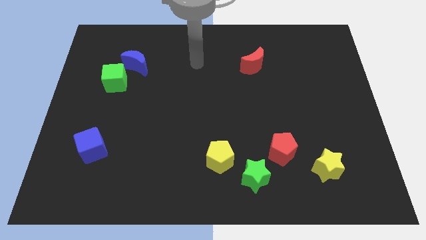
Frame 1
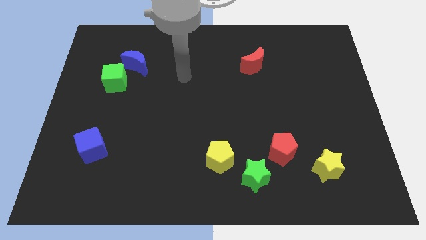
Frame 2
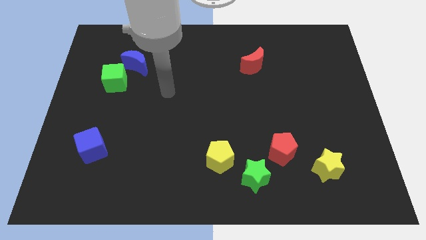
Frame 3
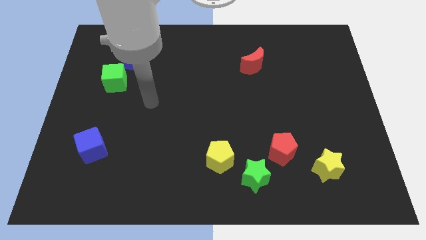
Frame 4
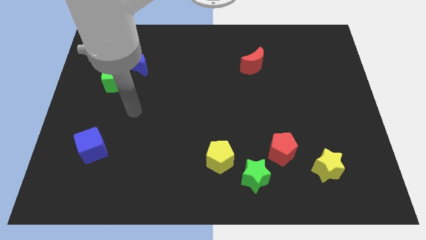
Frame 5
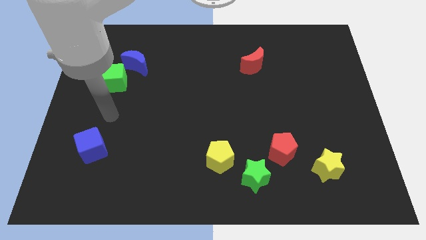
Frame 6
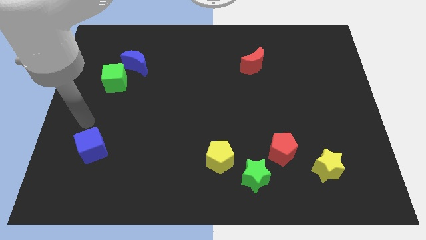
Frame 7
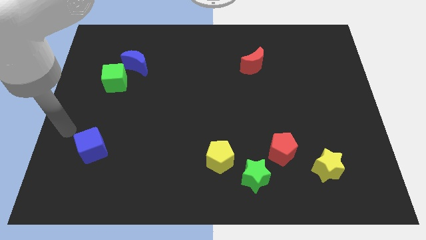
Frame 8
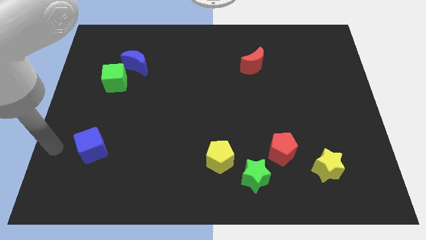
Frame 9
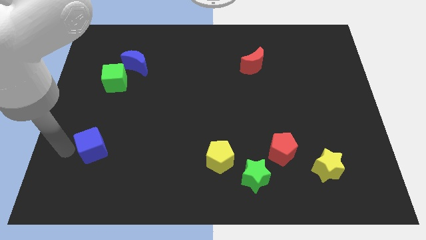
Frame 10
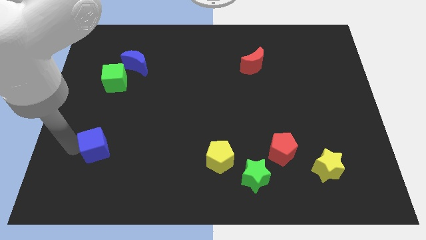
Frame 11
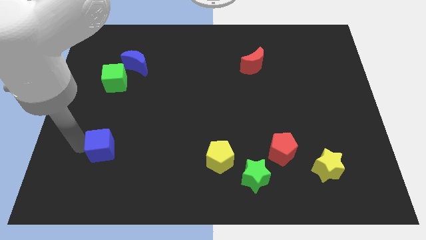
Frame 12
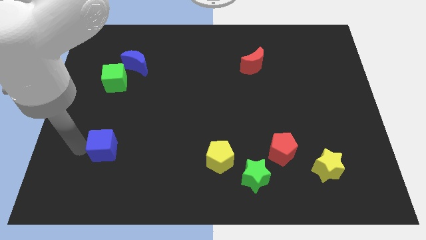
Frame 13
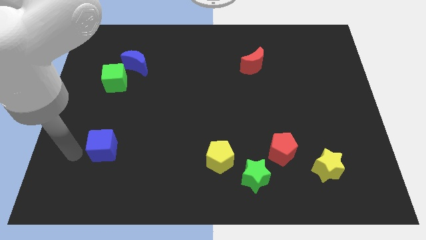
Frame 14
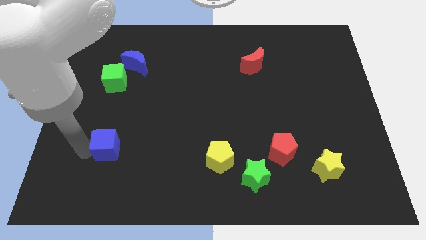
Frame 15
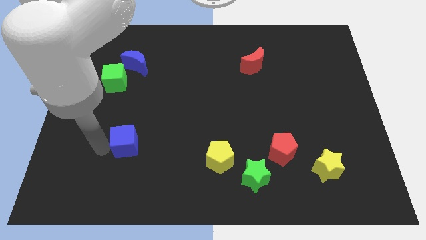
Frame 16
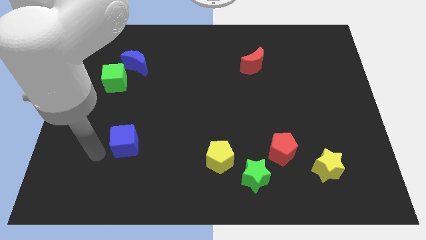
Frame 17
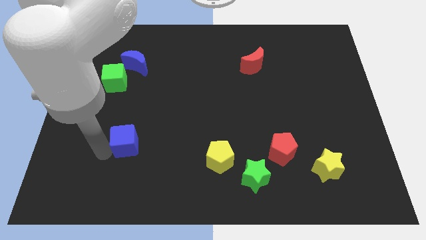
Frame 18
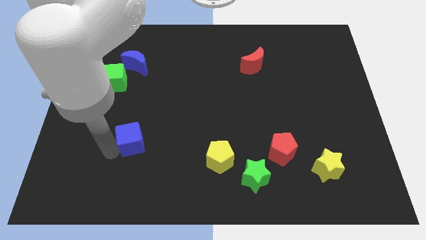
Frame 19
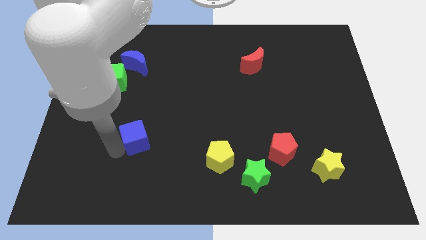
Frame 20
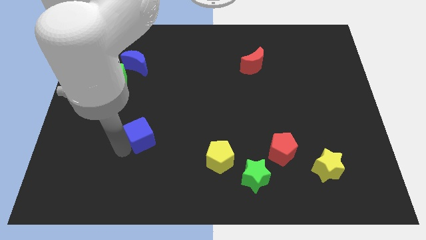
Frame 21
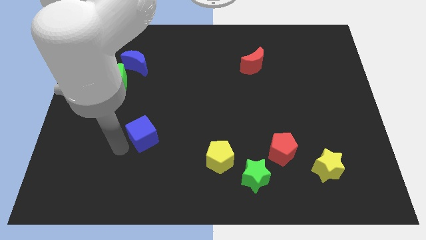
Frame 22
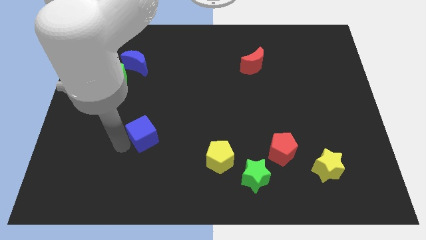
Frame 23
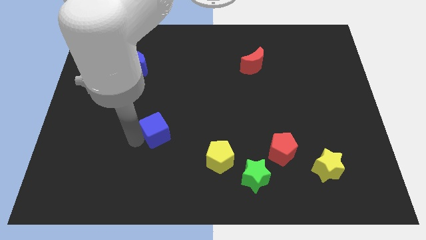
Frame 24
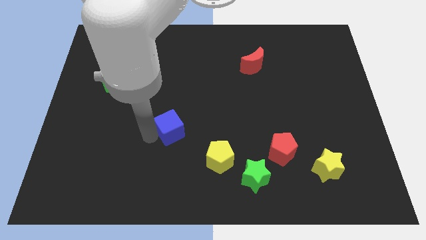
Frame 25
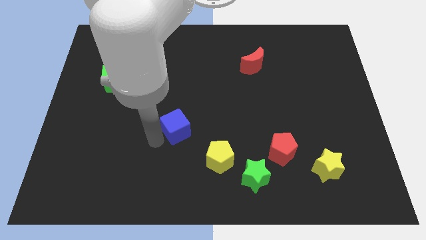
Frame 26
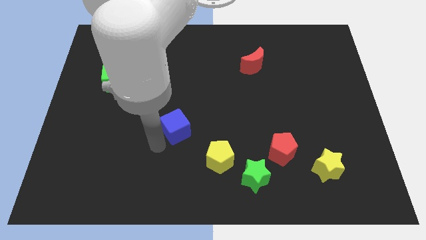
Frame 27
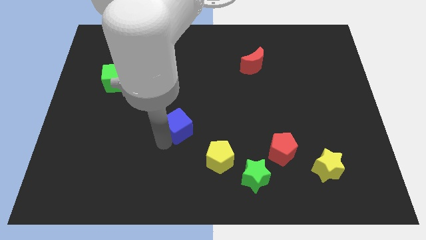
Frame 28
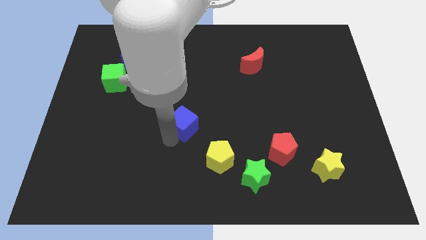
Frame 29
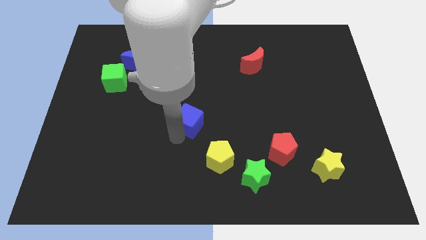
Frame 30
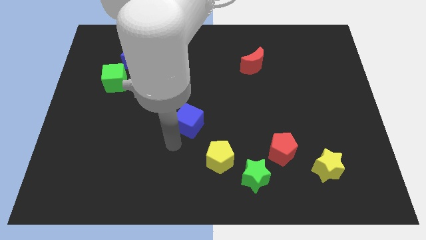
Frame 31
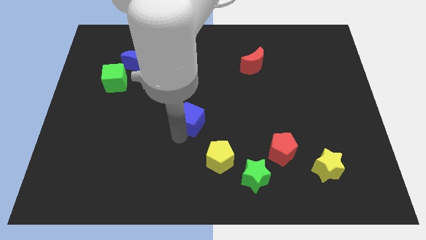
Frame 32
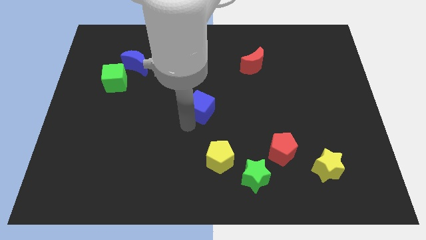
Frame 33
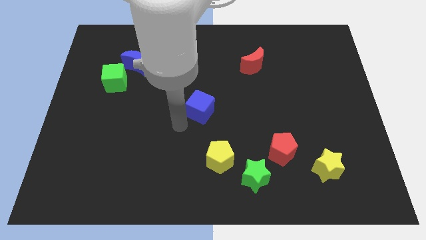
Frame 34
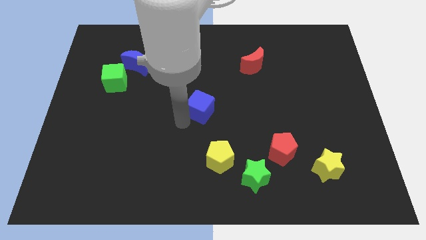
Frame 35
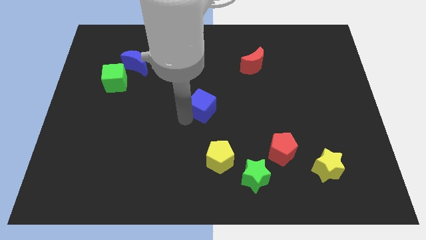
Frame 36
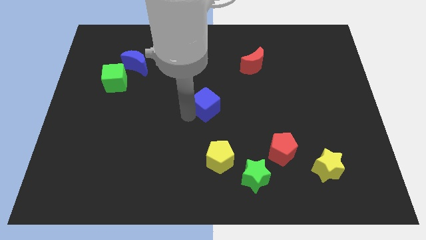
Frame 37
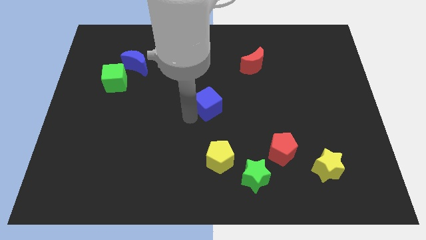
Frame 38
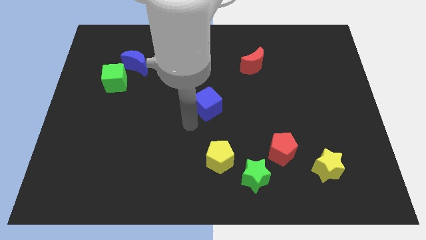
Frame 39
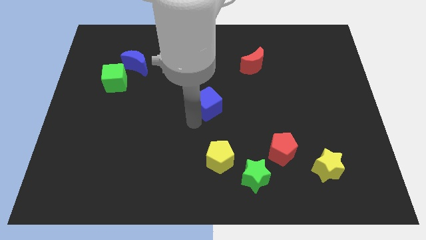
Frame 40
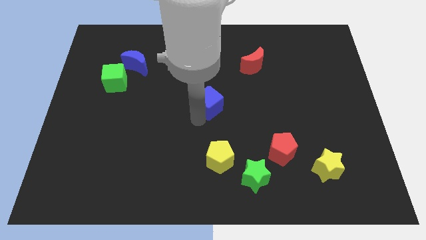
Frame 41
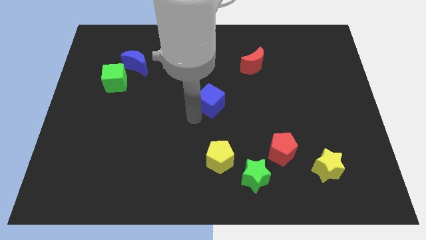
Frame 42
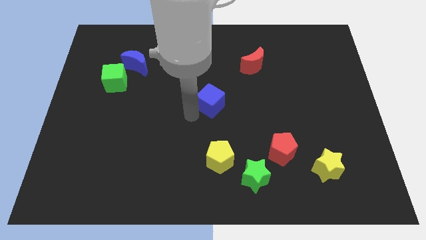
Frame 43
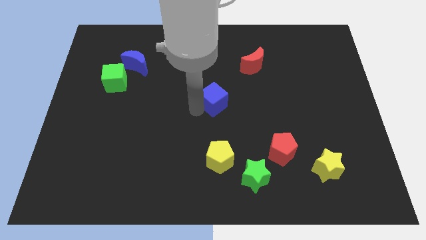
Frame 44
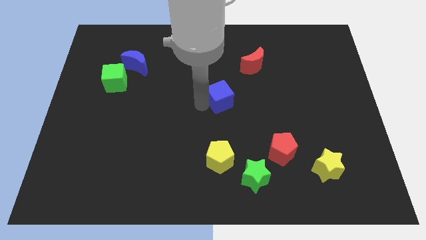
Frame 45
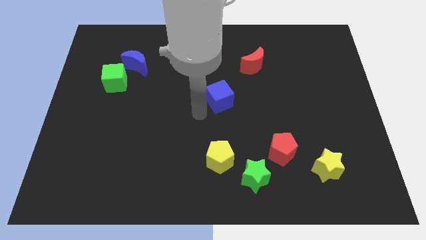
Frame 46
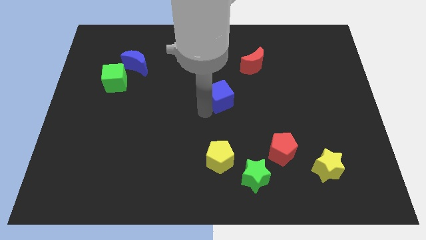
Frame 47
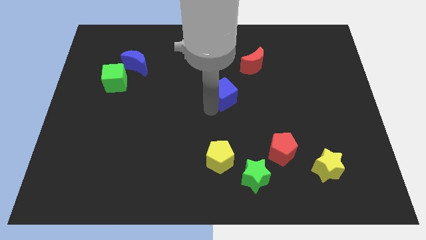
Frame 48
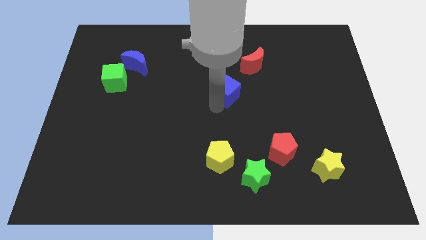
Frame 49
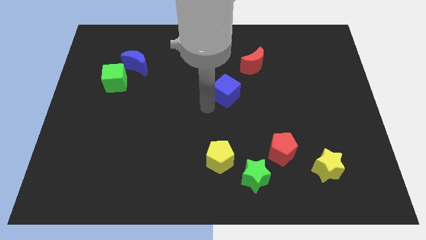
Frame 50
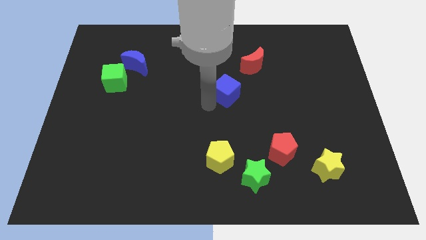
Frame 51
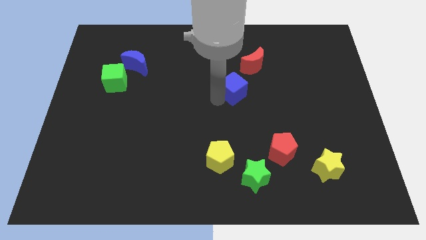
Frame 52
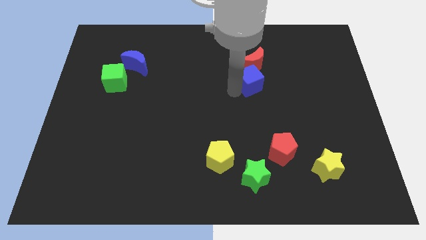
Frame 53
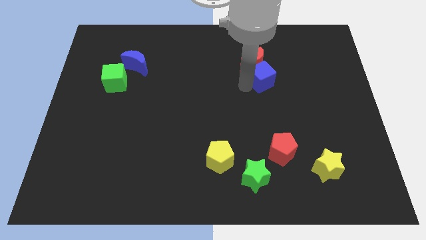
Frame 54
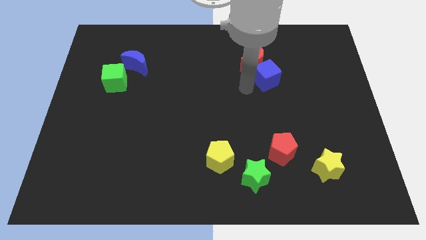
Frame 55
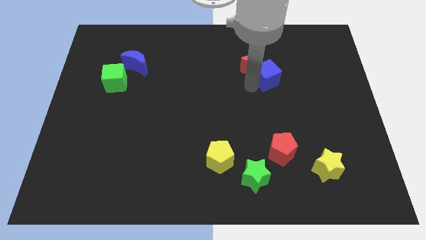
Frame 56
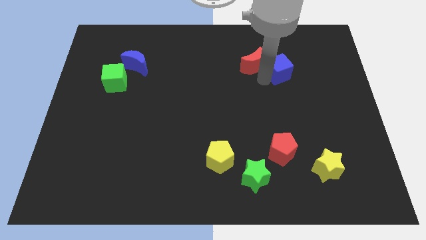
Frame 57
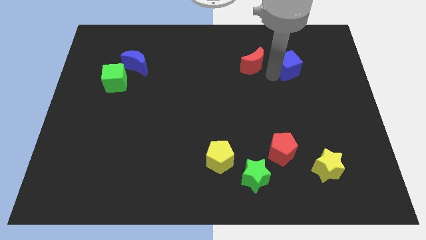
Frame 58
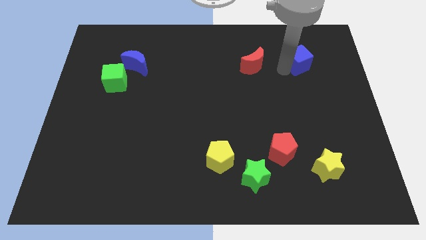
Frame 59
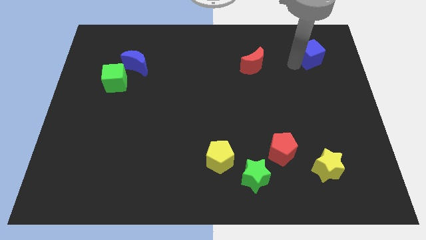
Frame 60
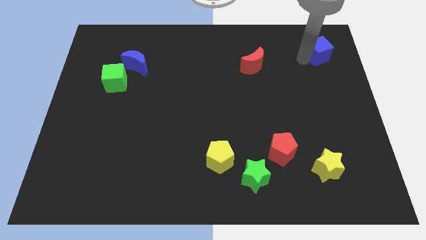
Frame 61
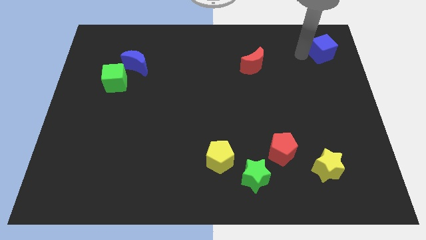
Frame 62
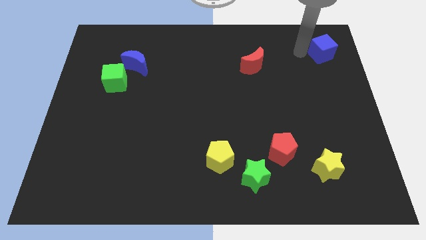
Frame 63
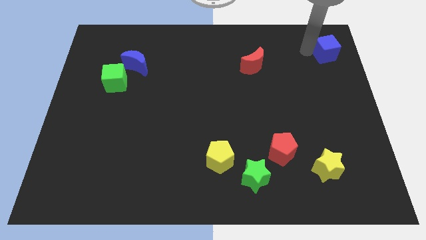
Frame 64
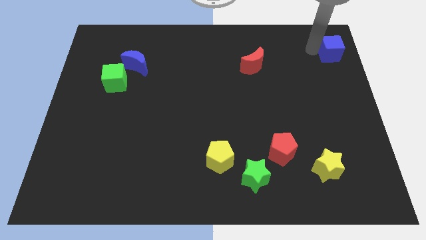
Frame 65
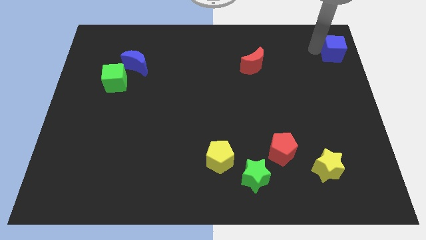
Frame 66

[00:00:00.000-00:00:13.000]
push the blue cube to the top right corner
